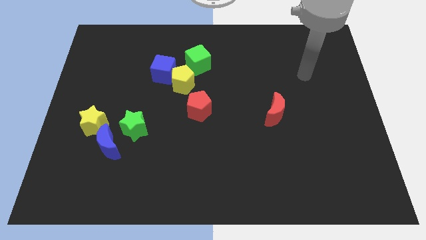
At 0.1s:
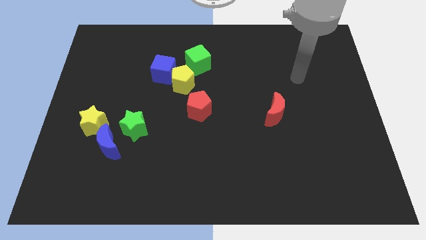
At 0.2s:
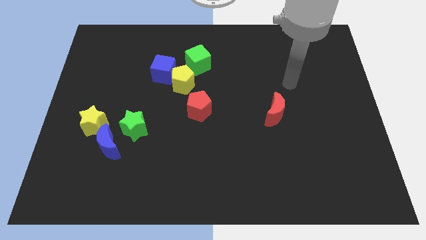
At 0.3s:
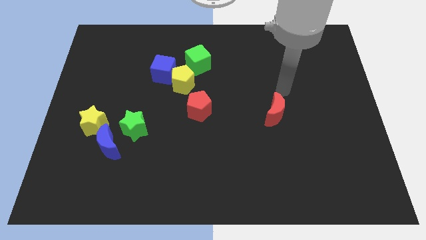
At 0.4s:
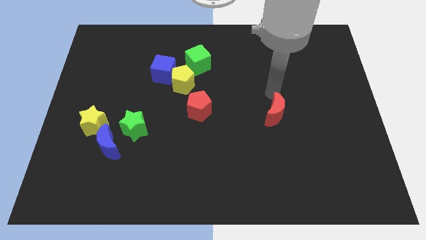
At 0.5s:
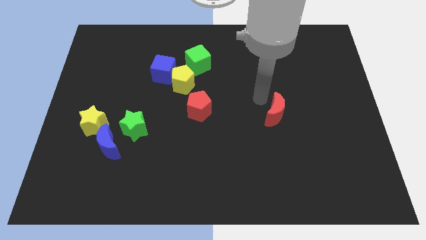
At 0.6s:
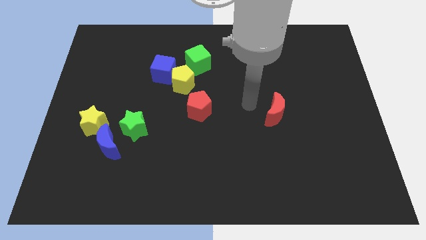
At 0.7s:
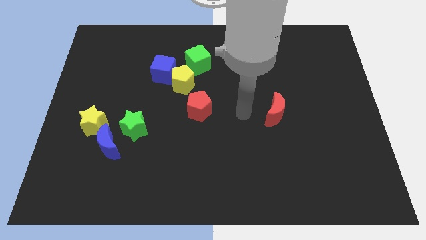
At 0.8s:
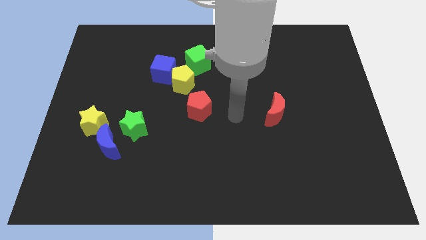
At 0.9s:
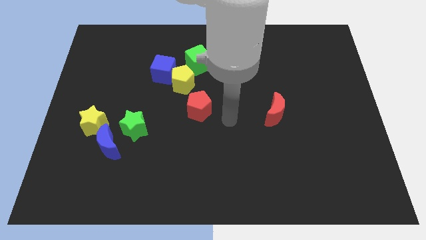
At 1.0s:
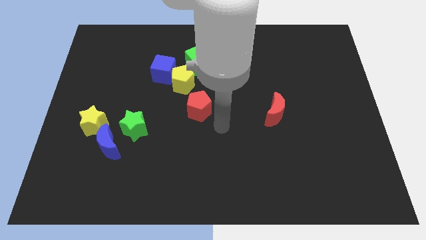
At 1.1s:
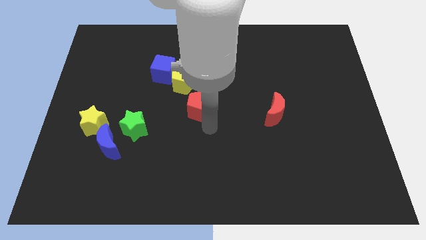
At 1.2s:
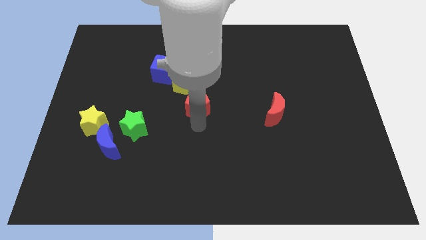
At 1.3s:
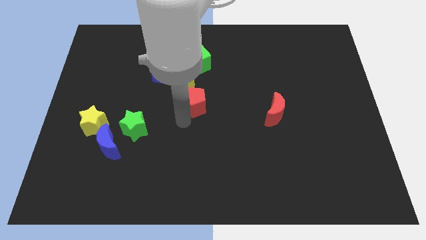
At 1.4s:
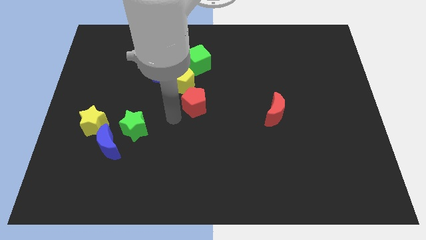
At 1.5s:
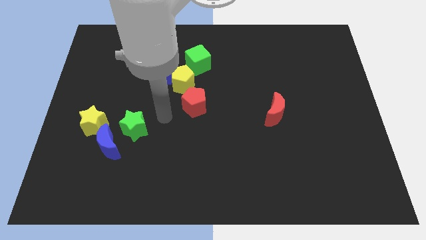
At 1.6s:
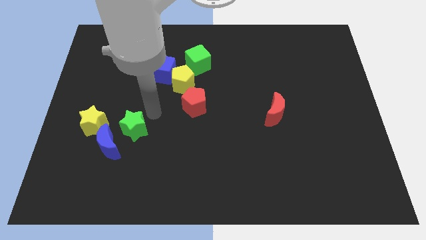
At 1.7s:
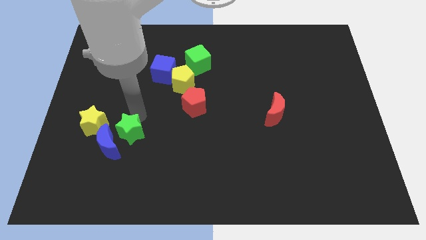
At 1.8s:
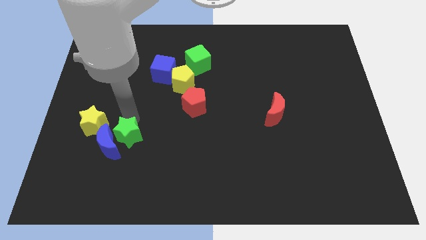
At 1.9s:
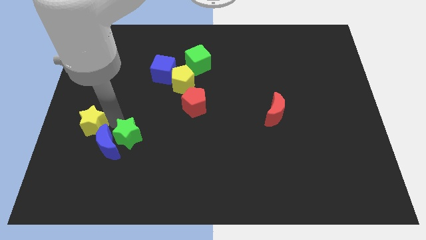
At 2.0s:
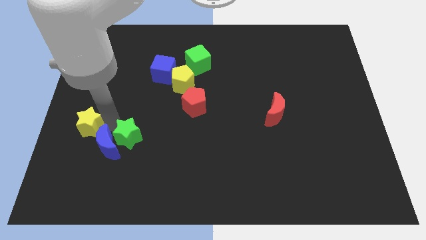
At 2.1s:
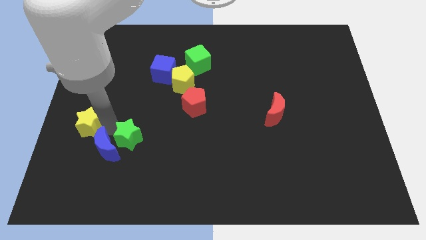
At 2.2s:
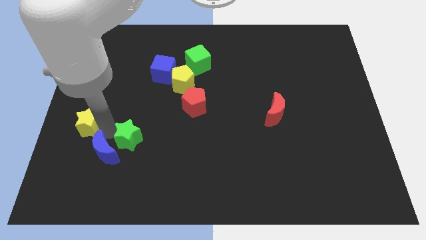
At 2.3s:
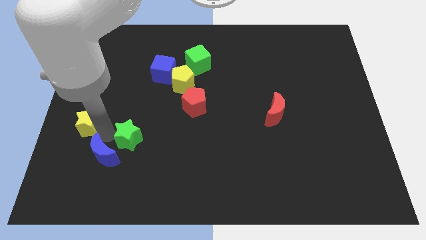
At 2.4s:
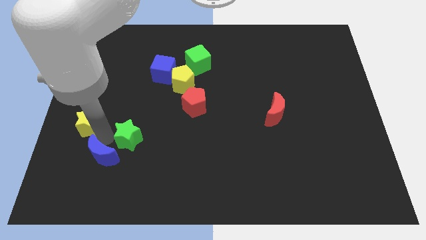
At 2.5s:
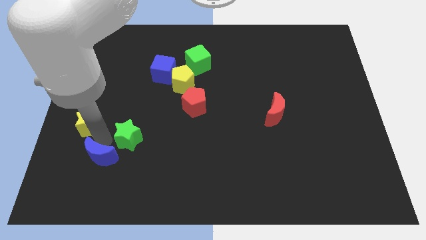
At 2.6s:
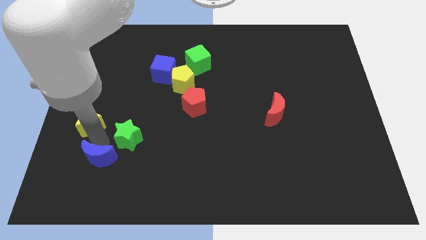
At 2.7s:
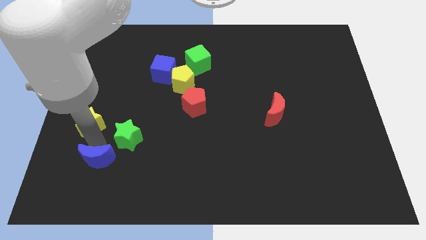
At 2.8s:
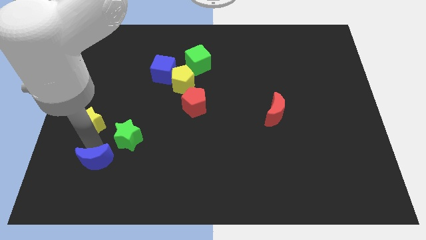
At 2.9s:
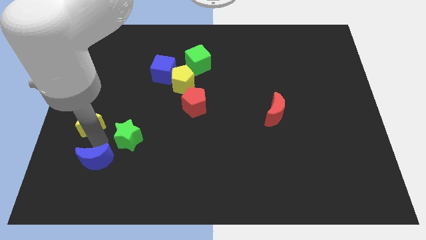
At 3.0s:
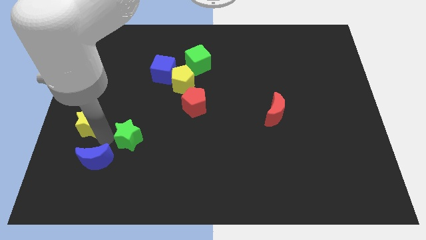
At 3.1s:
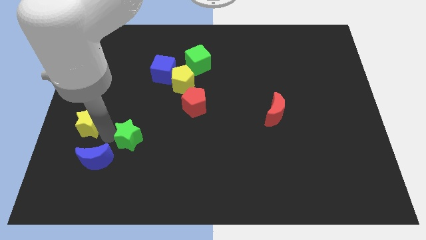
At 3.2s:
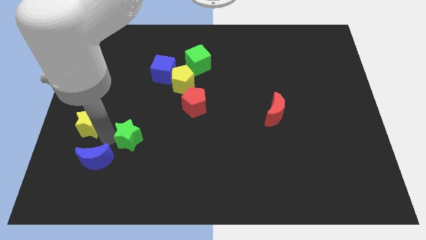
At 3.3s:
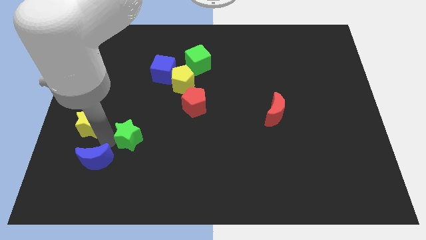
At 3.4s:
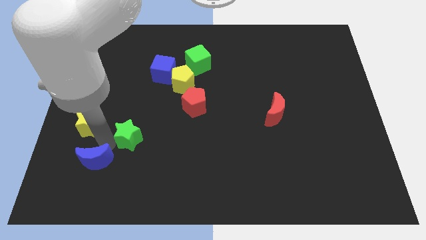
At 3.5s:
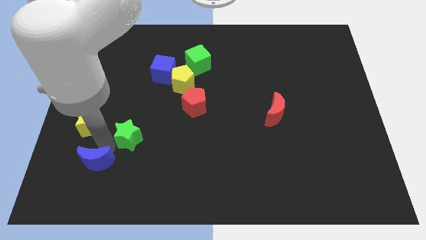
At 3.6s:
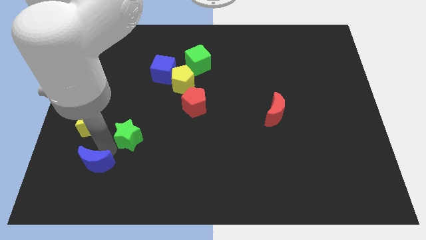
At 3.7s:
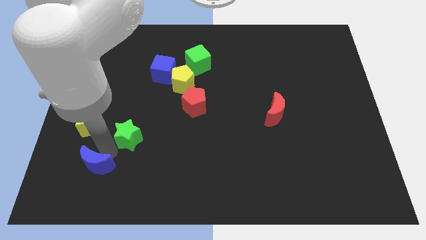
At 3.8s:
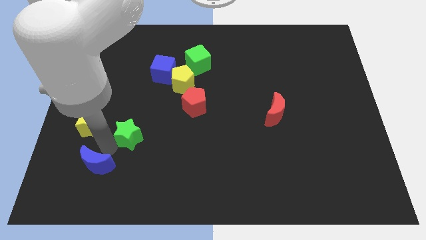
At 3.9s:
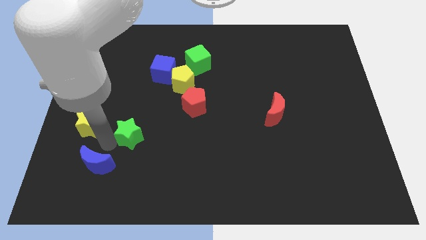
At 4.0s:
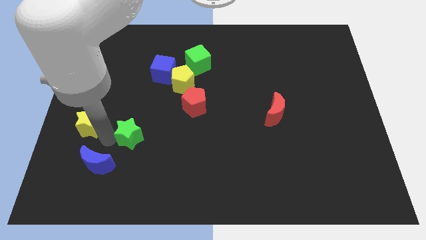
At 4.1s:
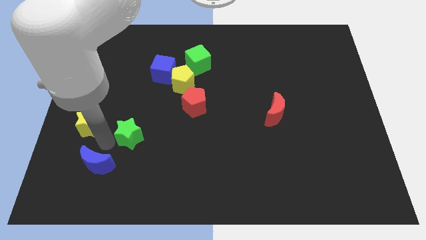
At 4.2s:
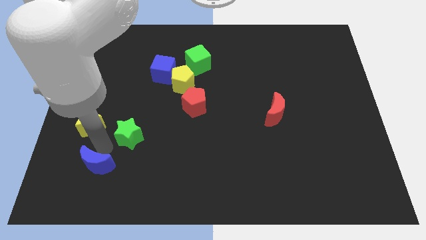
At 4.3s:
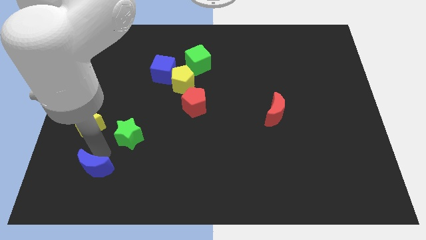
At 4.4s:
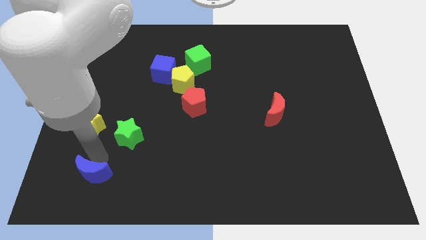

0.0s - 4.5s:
separate the blue moon from the yellow star and green star

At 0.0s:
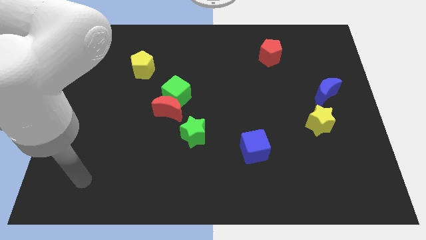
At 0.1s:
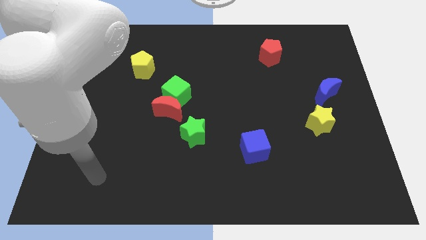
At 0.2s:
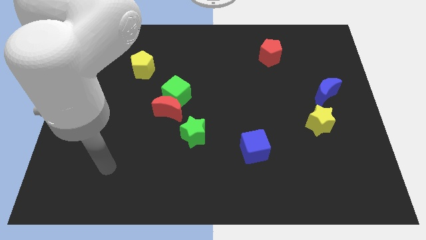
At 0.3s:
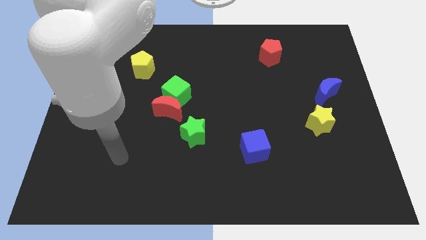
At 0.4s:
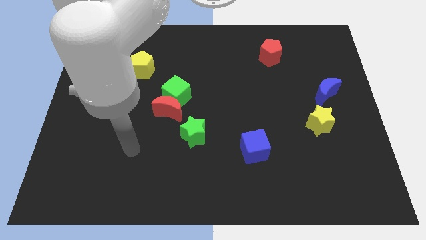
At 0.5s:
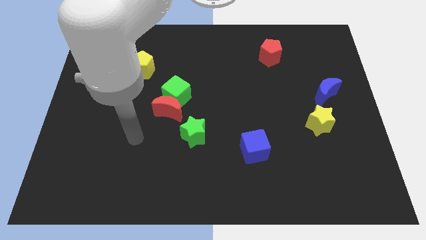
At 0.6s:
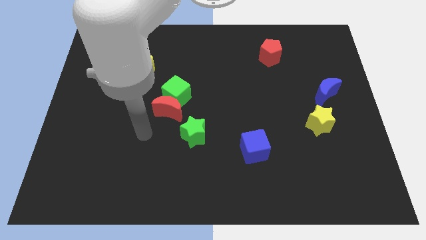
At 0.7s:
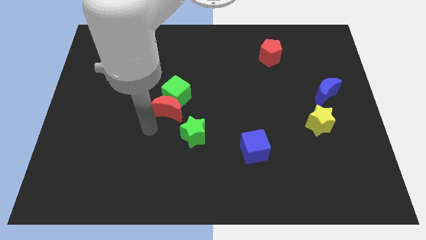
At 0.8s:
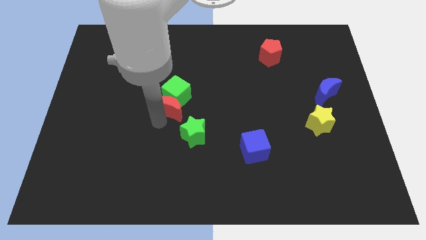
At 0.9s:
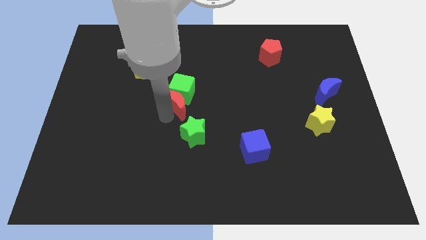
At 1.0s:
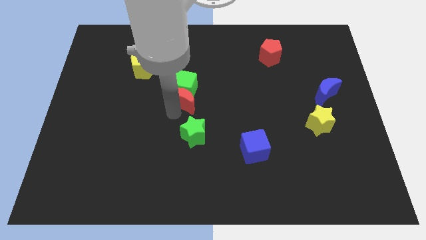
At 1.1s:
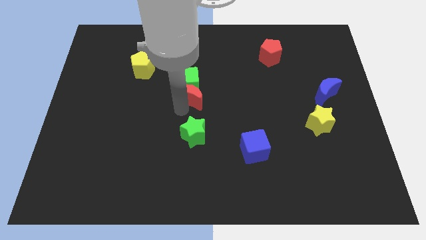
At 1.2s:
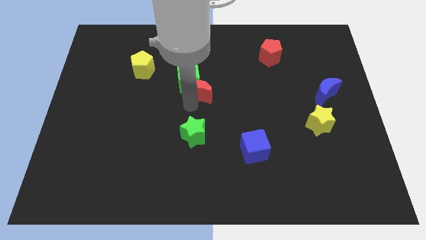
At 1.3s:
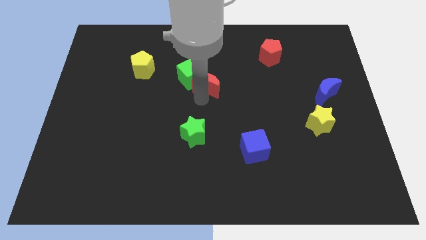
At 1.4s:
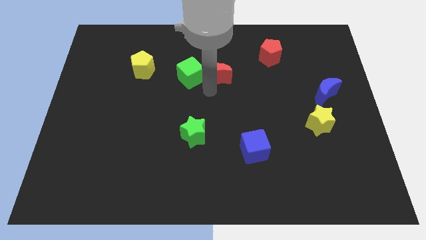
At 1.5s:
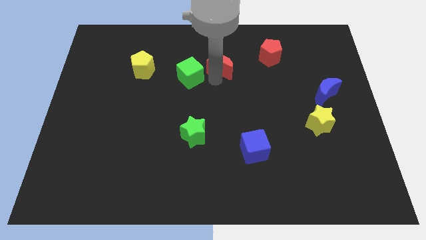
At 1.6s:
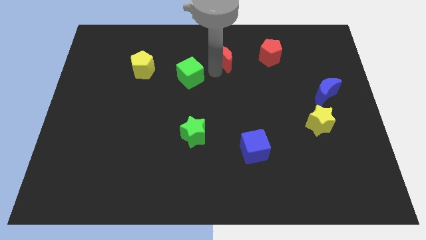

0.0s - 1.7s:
move the green cube away from the red moon

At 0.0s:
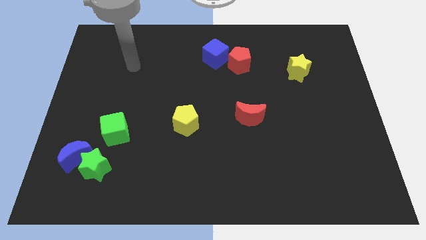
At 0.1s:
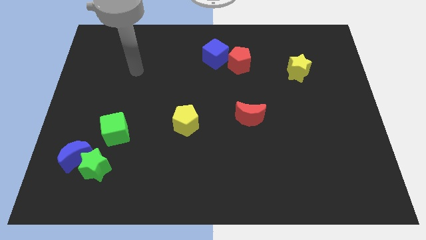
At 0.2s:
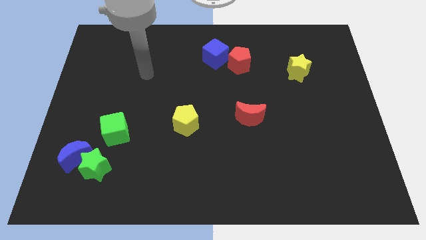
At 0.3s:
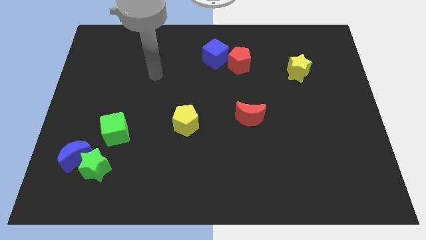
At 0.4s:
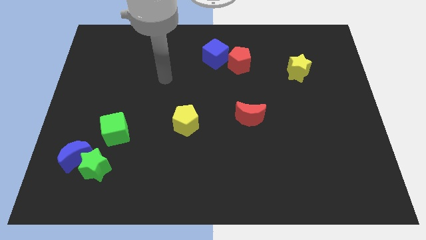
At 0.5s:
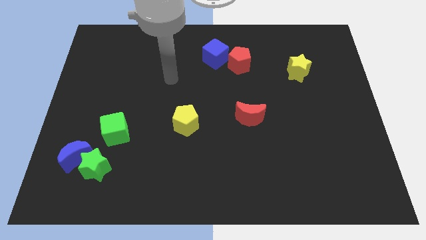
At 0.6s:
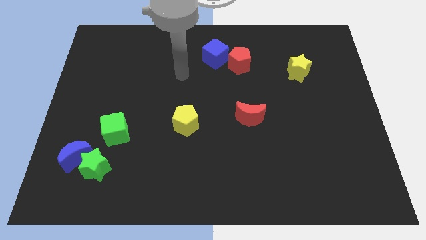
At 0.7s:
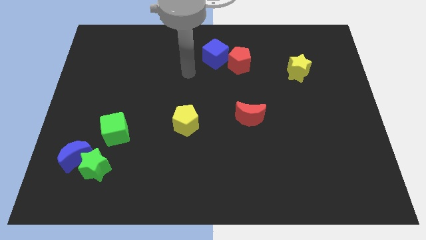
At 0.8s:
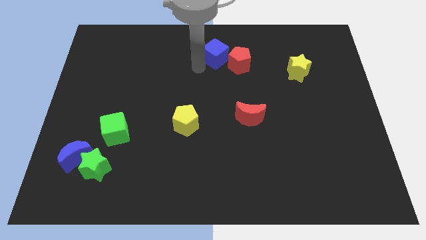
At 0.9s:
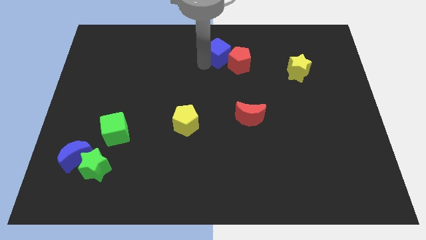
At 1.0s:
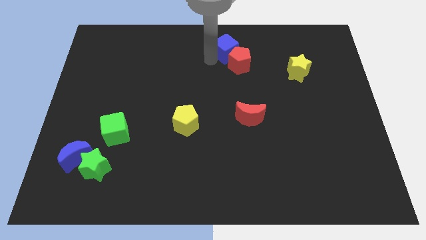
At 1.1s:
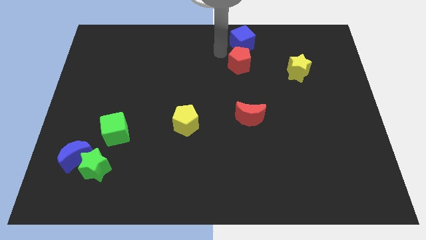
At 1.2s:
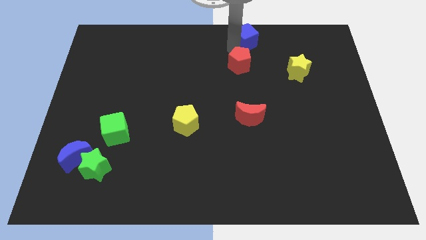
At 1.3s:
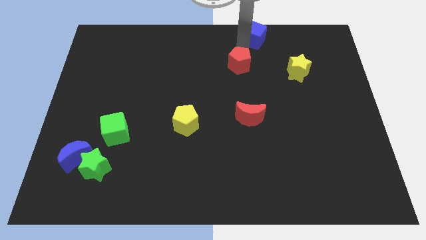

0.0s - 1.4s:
move the red pentagon away from the blue cube

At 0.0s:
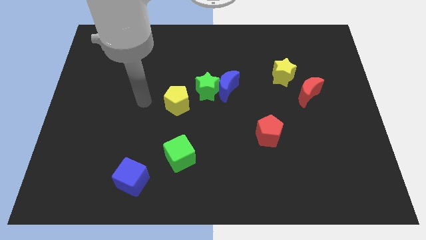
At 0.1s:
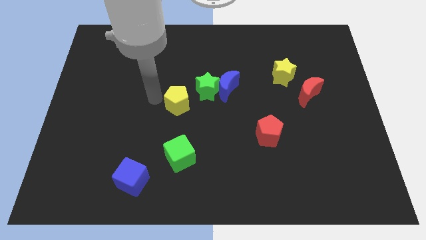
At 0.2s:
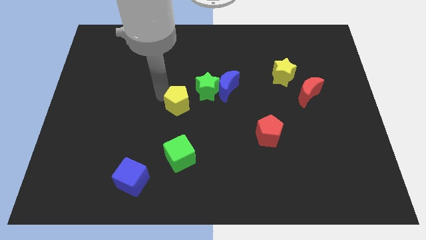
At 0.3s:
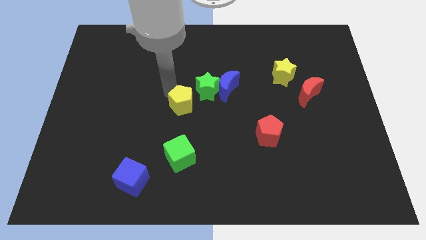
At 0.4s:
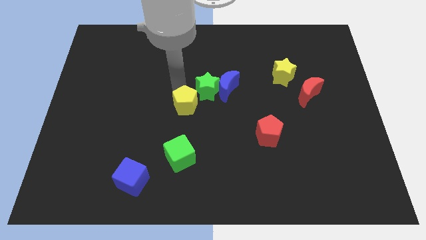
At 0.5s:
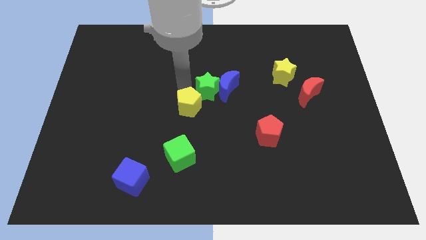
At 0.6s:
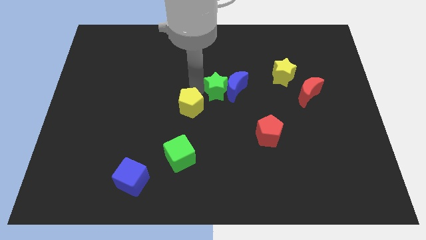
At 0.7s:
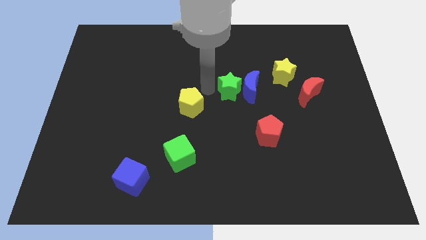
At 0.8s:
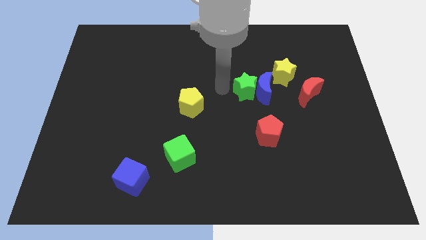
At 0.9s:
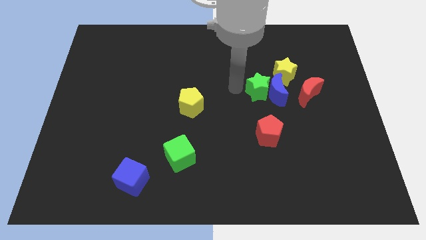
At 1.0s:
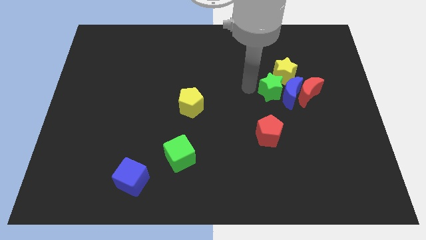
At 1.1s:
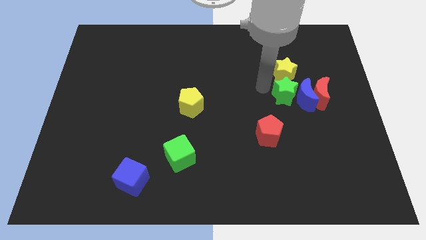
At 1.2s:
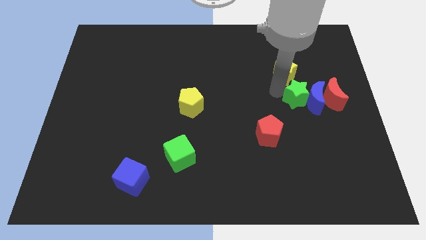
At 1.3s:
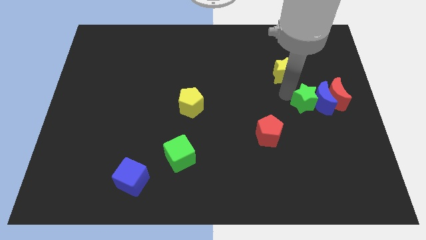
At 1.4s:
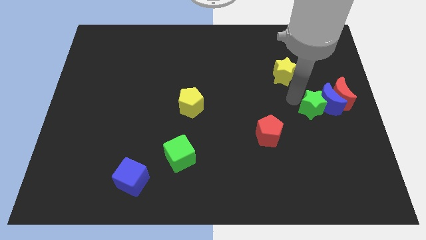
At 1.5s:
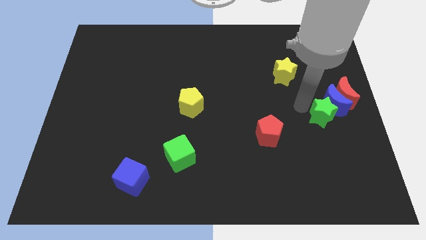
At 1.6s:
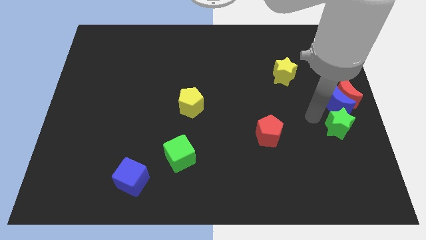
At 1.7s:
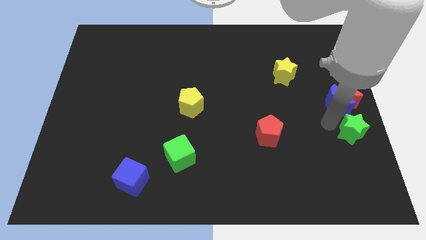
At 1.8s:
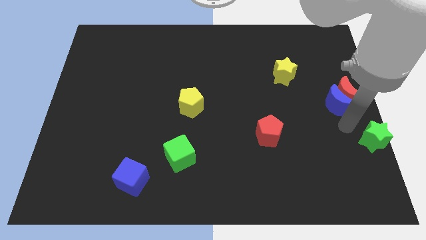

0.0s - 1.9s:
move the blue moon away from the green star

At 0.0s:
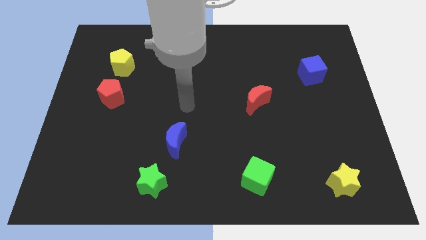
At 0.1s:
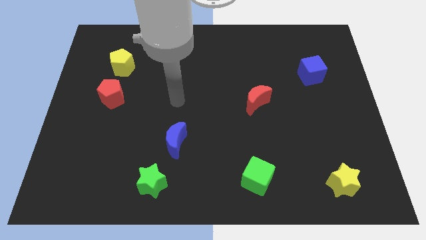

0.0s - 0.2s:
separate the red pentagon from the yellow pentagon
